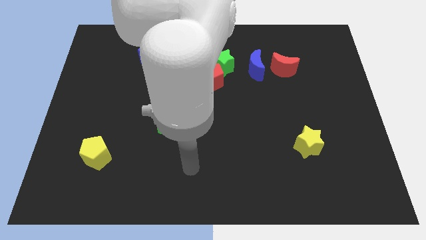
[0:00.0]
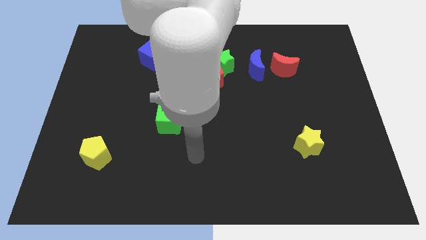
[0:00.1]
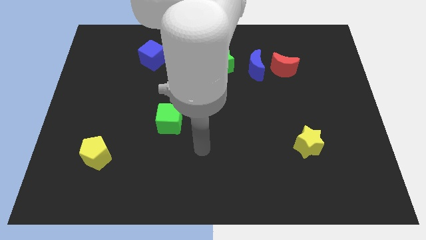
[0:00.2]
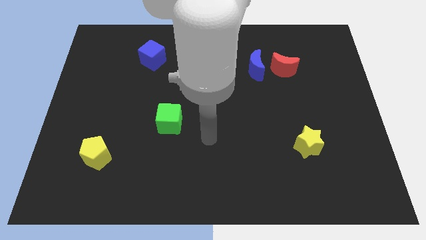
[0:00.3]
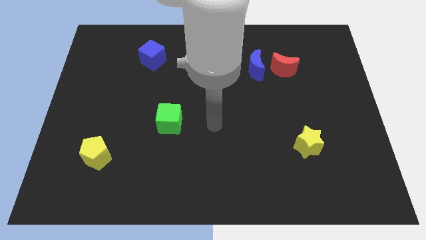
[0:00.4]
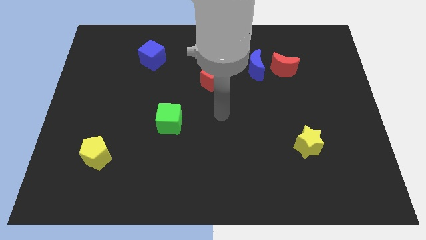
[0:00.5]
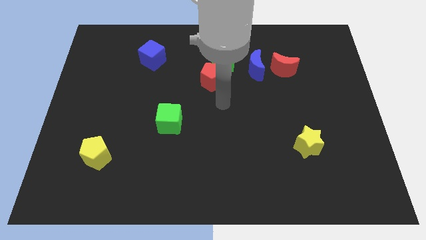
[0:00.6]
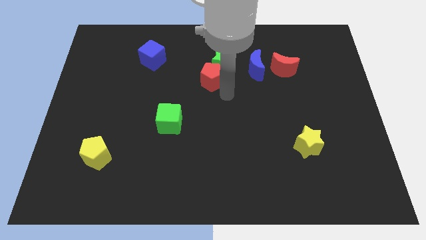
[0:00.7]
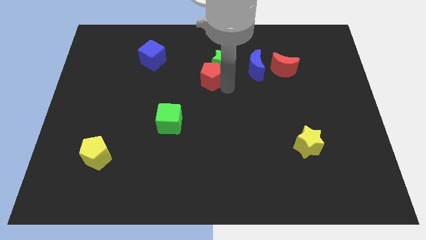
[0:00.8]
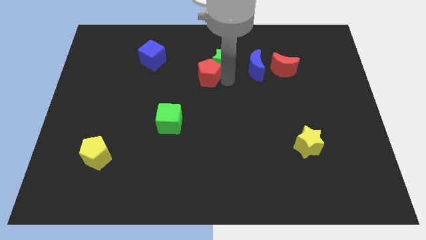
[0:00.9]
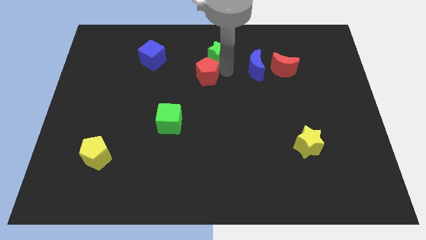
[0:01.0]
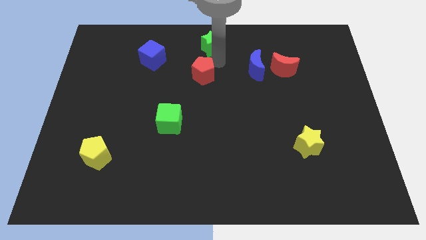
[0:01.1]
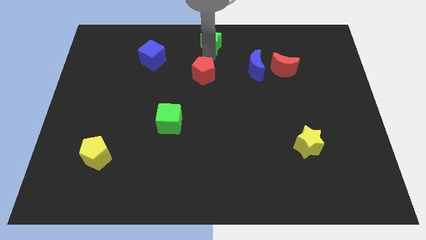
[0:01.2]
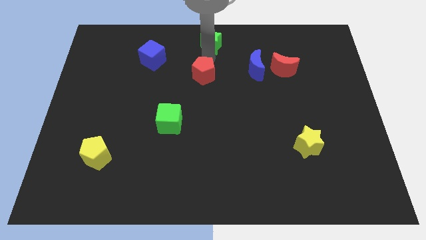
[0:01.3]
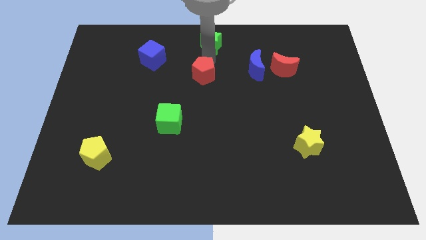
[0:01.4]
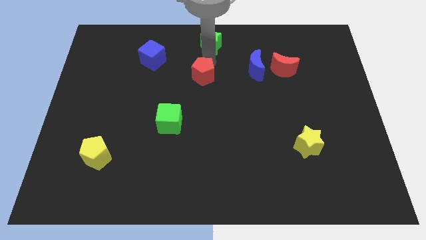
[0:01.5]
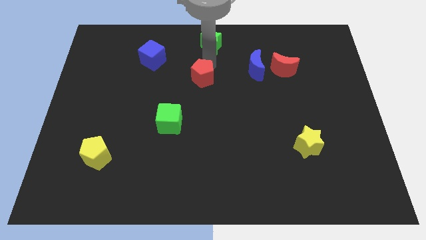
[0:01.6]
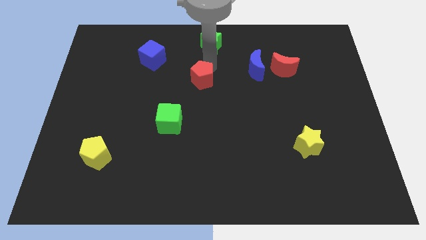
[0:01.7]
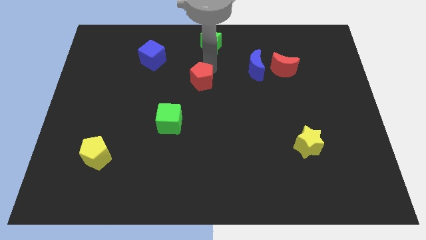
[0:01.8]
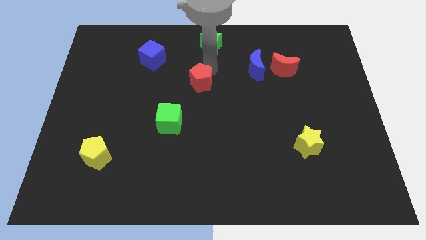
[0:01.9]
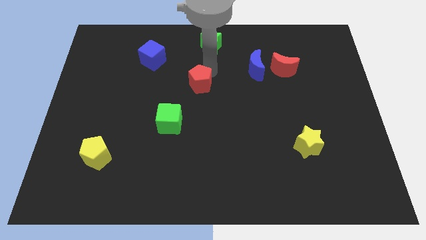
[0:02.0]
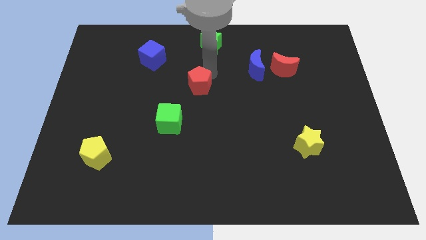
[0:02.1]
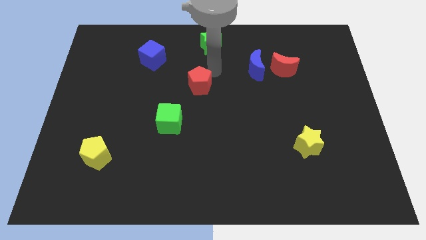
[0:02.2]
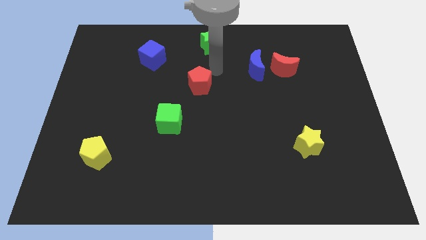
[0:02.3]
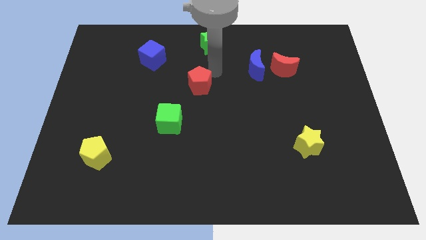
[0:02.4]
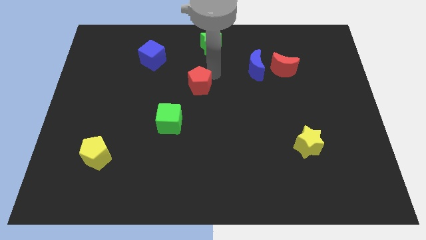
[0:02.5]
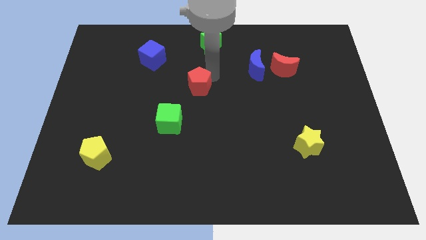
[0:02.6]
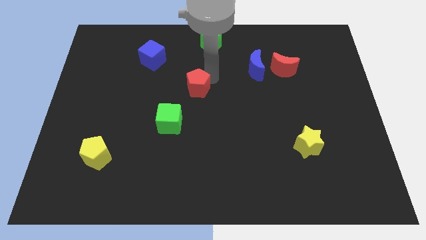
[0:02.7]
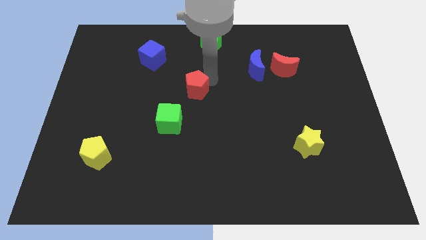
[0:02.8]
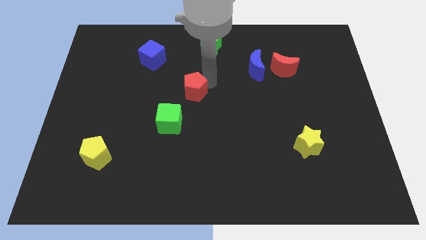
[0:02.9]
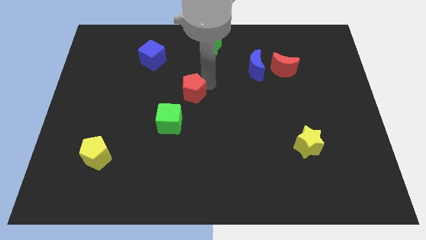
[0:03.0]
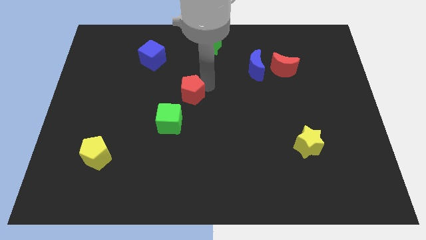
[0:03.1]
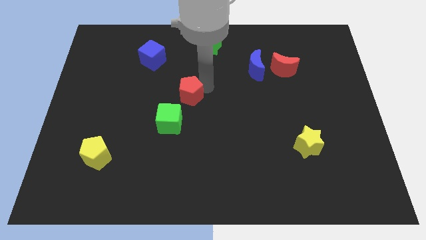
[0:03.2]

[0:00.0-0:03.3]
slightly push the red pentagon downwards and to the left

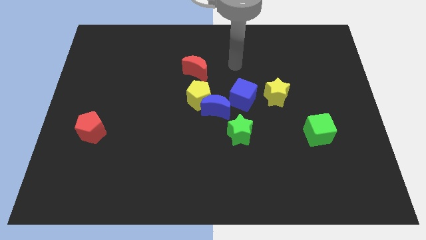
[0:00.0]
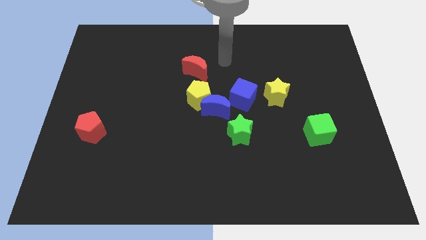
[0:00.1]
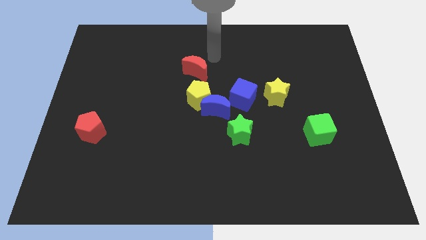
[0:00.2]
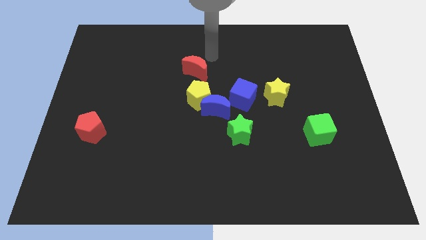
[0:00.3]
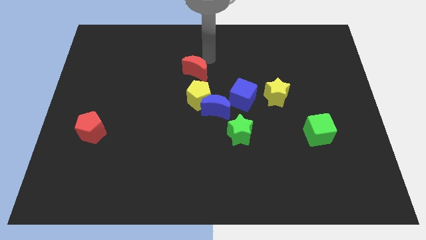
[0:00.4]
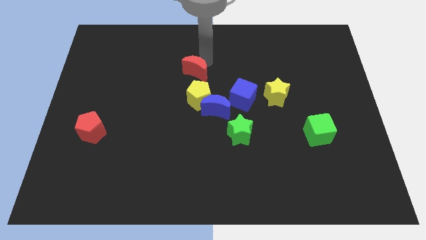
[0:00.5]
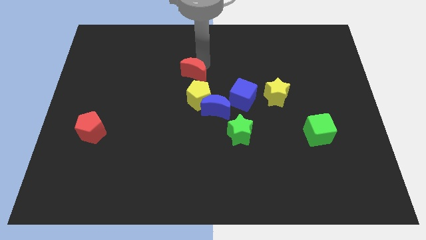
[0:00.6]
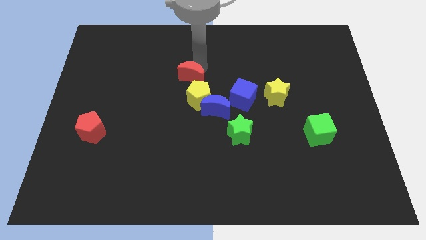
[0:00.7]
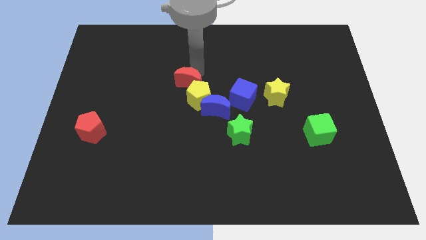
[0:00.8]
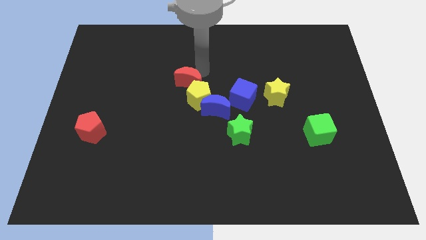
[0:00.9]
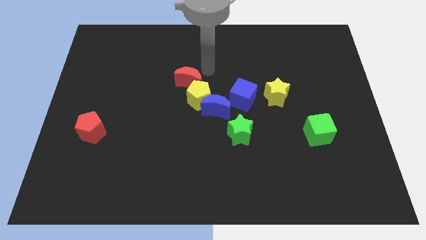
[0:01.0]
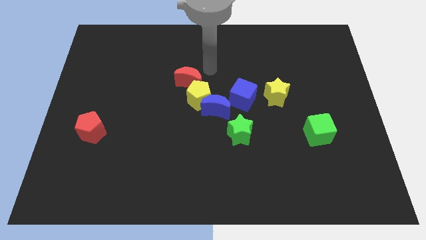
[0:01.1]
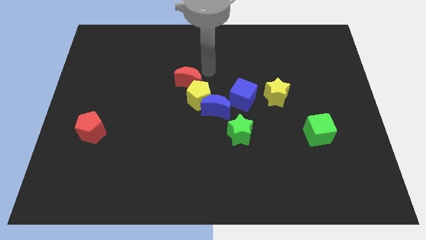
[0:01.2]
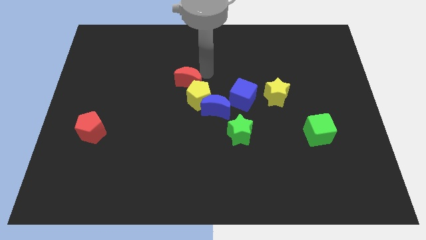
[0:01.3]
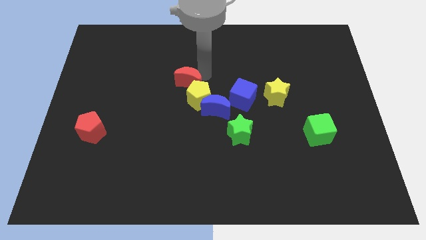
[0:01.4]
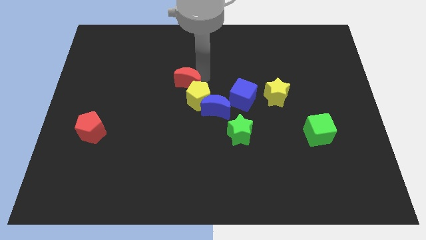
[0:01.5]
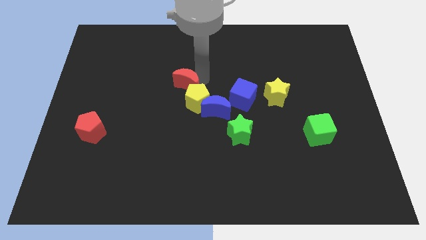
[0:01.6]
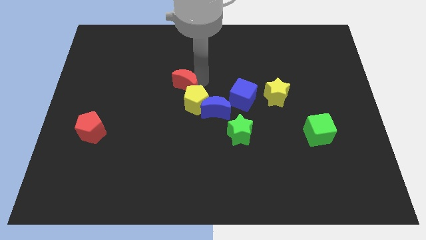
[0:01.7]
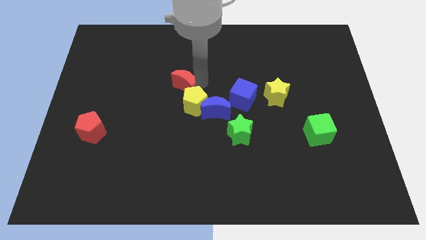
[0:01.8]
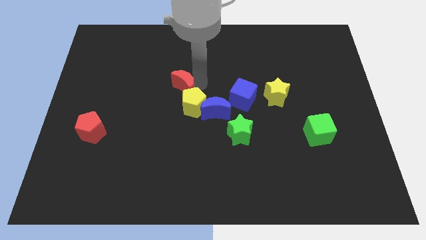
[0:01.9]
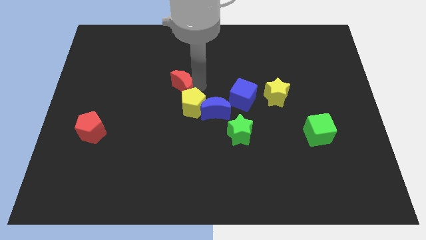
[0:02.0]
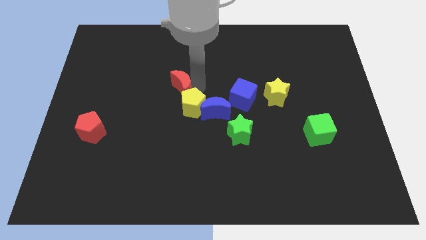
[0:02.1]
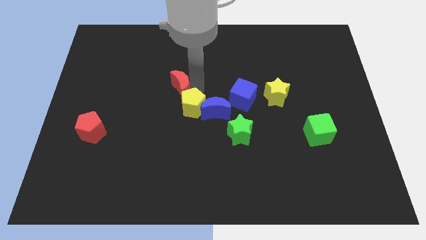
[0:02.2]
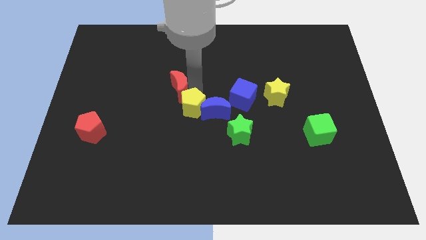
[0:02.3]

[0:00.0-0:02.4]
move the red moon downwards and left a little

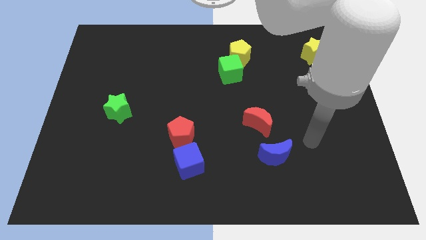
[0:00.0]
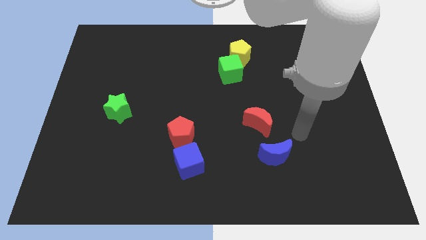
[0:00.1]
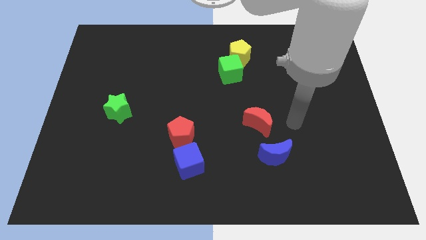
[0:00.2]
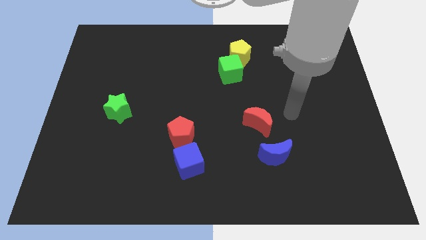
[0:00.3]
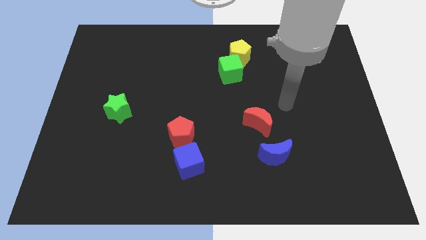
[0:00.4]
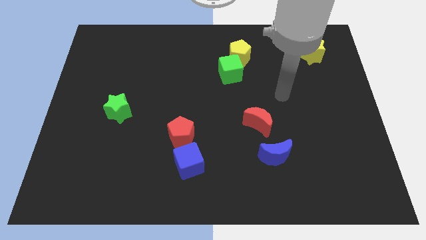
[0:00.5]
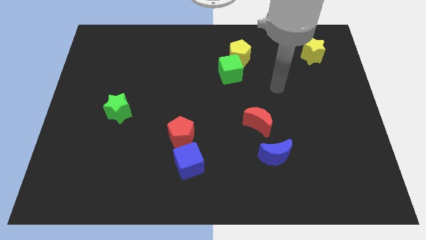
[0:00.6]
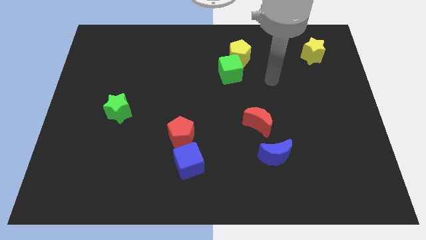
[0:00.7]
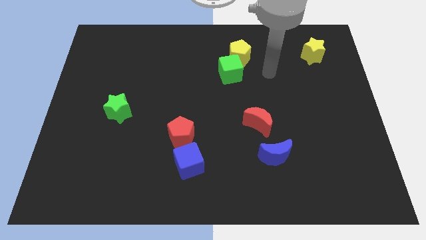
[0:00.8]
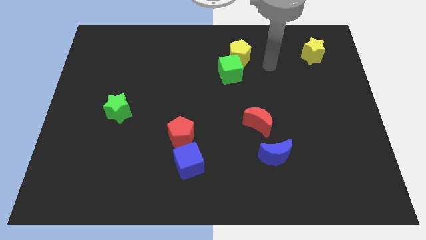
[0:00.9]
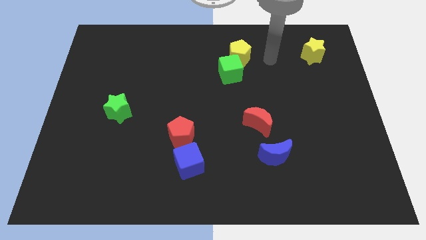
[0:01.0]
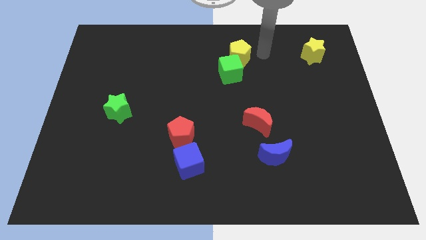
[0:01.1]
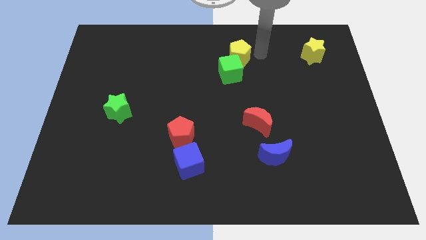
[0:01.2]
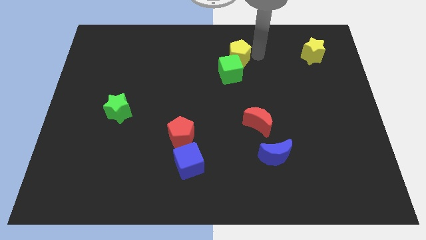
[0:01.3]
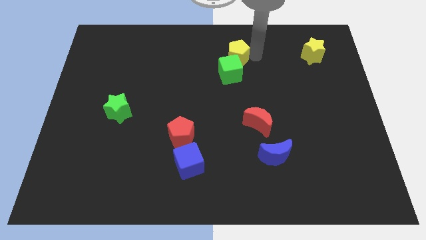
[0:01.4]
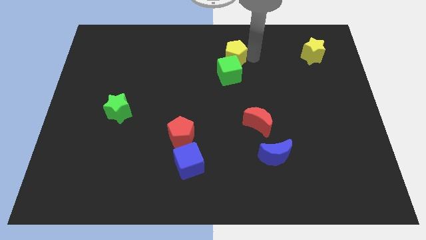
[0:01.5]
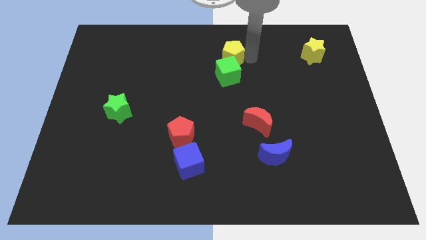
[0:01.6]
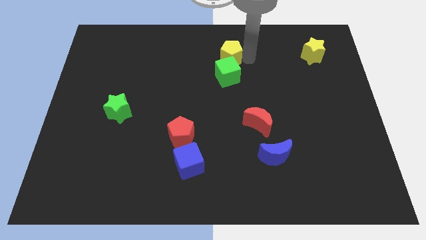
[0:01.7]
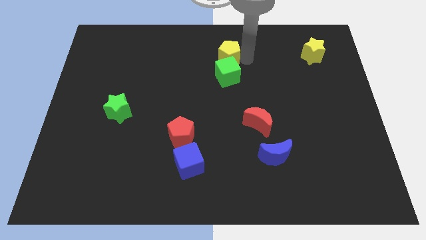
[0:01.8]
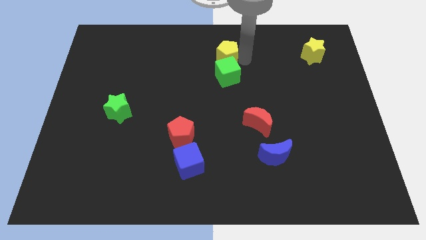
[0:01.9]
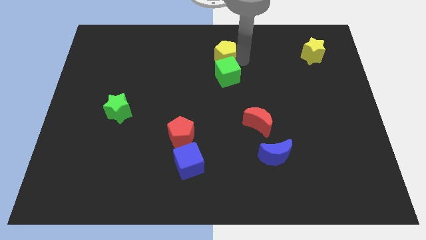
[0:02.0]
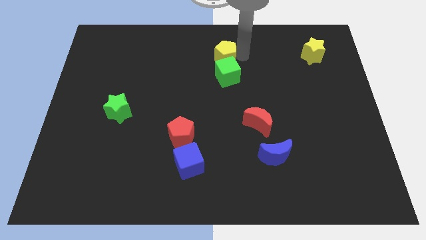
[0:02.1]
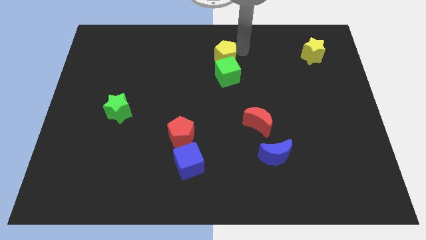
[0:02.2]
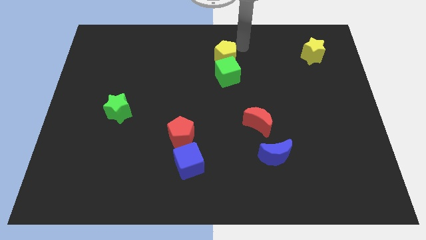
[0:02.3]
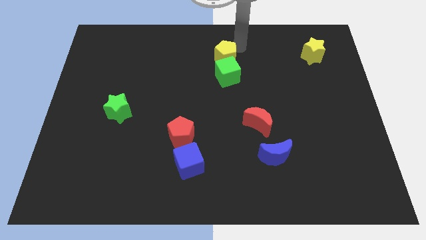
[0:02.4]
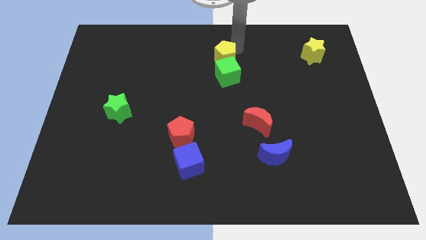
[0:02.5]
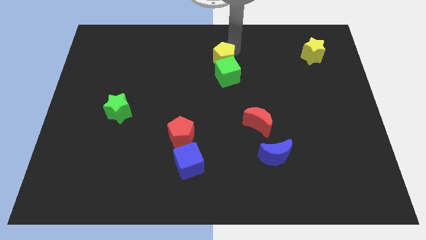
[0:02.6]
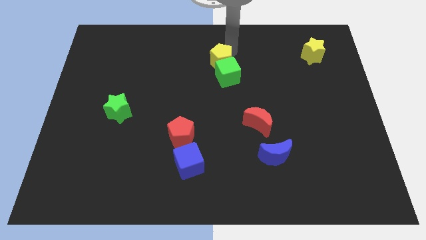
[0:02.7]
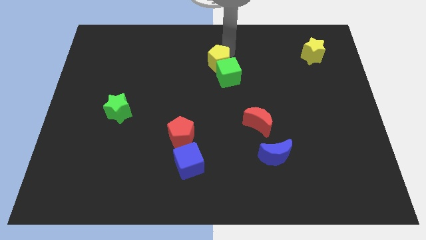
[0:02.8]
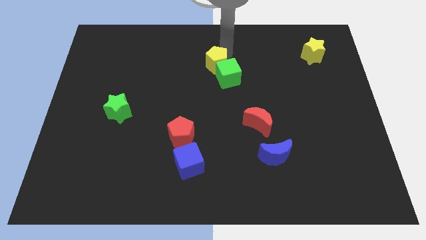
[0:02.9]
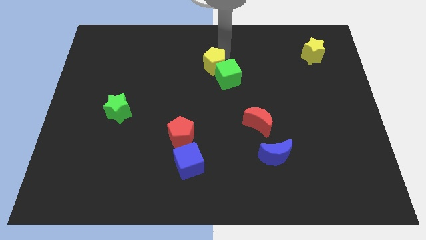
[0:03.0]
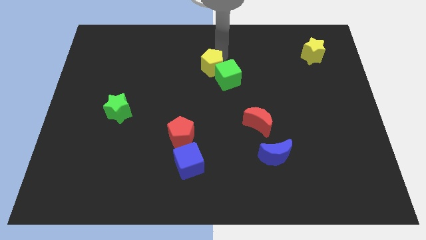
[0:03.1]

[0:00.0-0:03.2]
push the yellow pentagon a little downwards and then to the left
